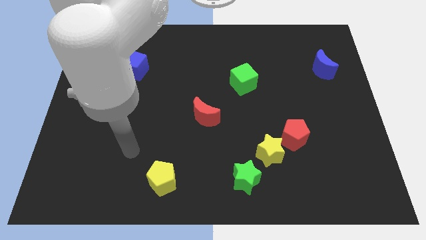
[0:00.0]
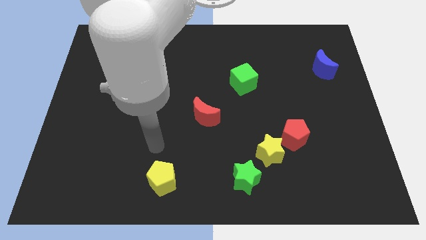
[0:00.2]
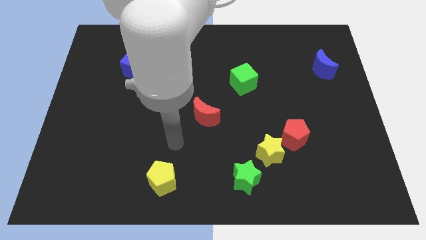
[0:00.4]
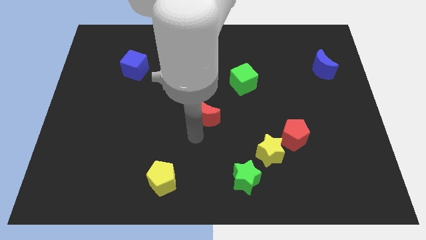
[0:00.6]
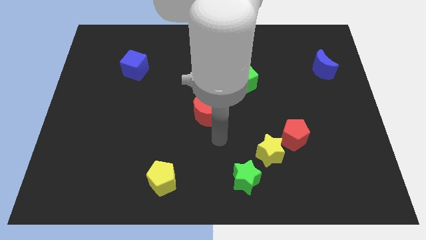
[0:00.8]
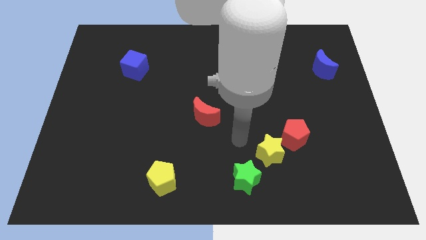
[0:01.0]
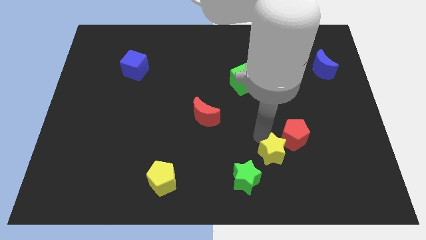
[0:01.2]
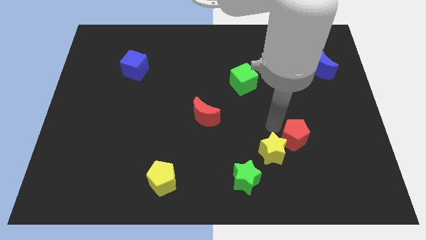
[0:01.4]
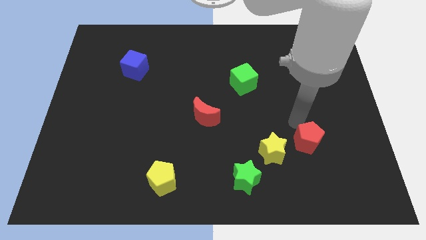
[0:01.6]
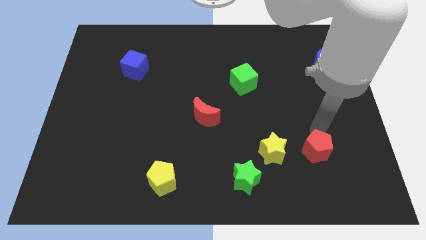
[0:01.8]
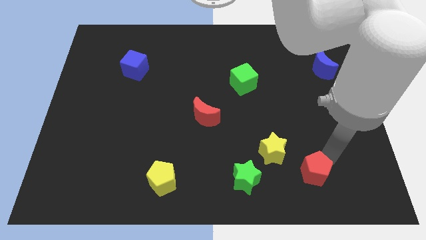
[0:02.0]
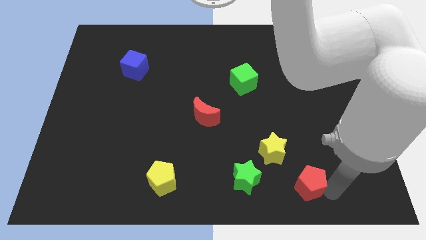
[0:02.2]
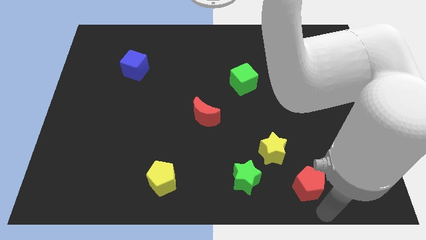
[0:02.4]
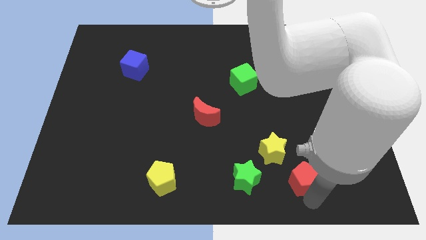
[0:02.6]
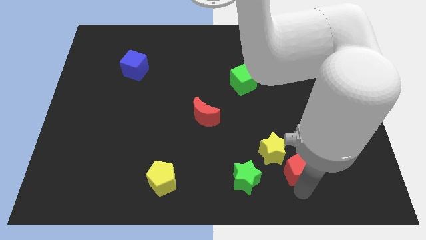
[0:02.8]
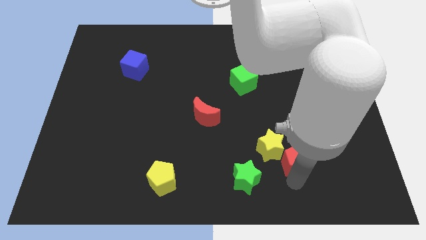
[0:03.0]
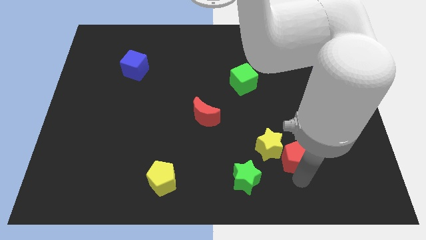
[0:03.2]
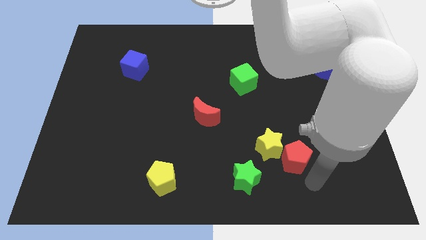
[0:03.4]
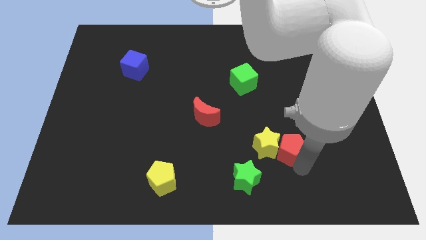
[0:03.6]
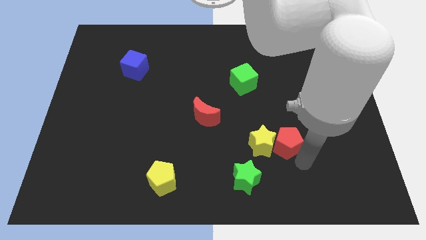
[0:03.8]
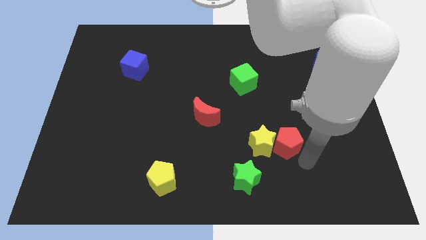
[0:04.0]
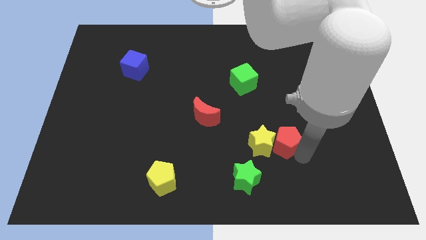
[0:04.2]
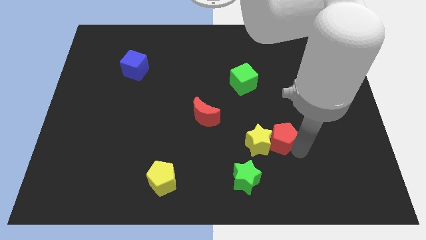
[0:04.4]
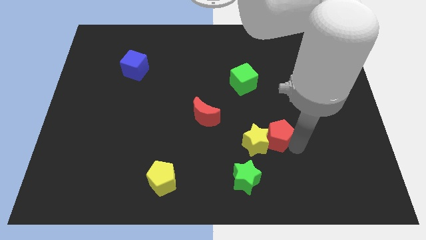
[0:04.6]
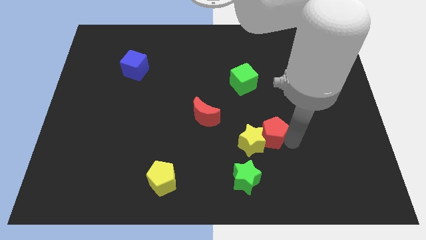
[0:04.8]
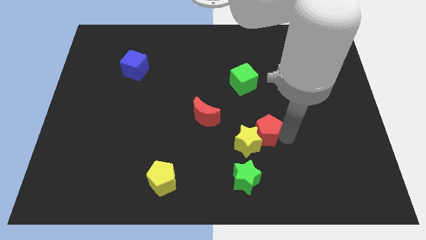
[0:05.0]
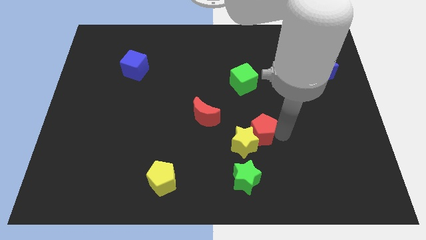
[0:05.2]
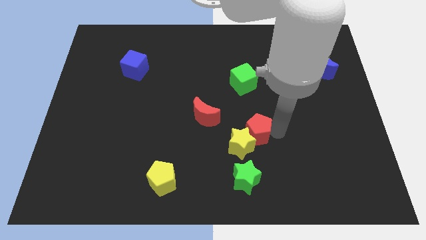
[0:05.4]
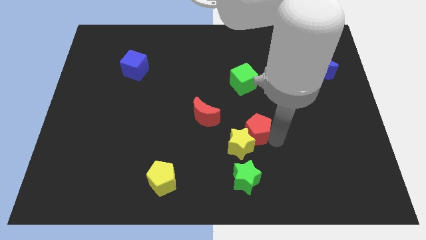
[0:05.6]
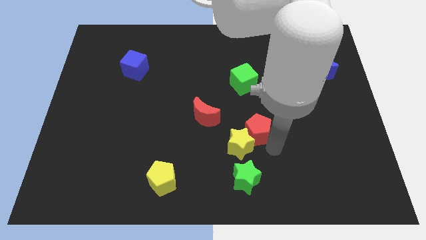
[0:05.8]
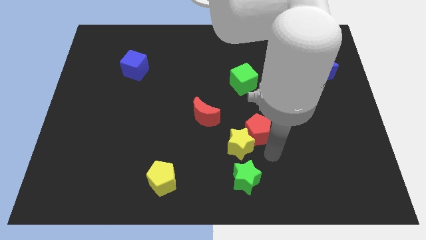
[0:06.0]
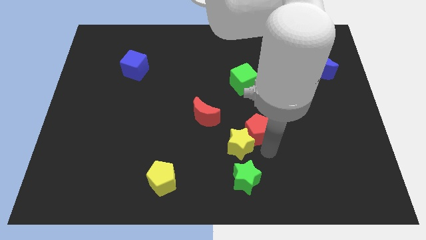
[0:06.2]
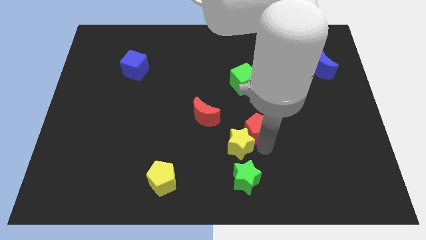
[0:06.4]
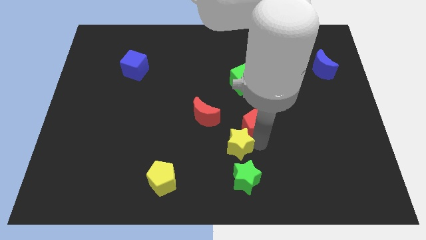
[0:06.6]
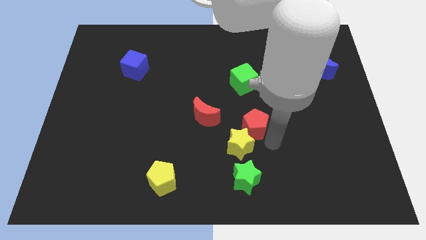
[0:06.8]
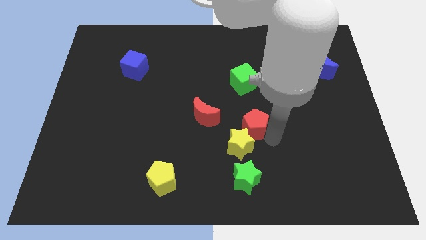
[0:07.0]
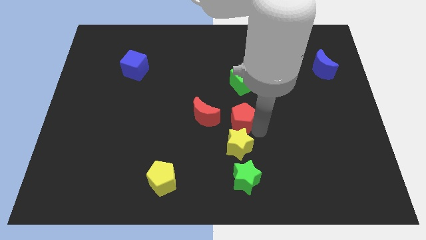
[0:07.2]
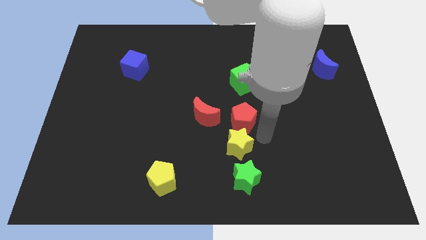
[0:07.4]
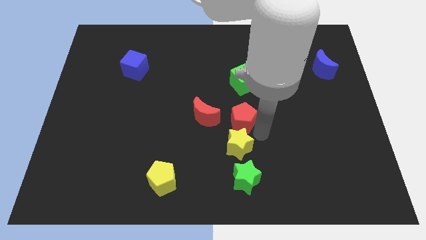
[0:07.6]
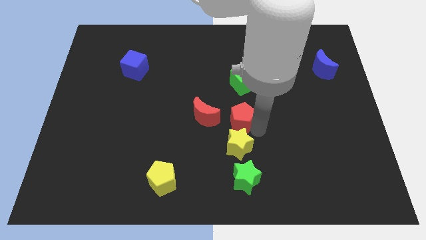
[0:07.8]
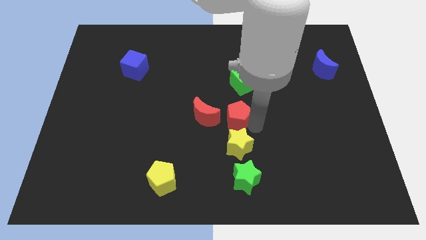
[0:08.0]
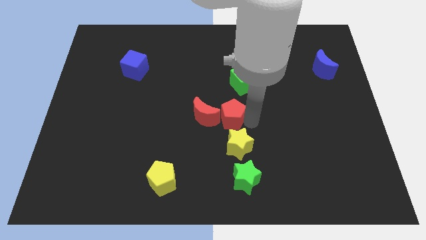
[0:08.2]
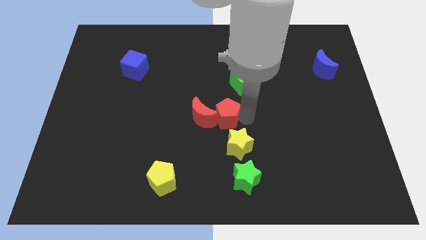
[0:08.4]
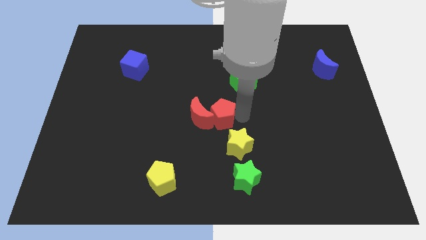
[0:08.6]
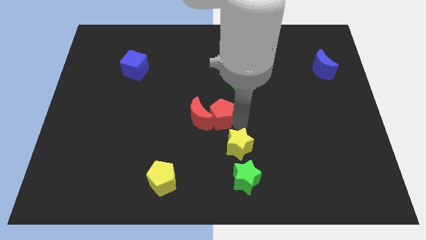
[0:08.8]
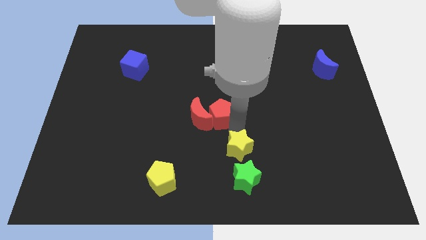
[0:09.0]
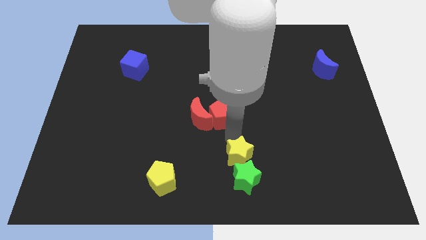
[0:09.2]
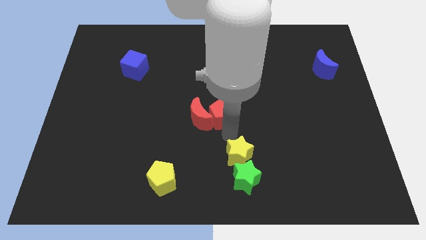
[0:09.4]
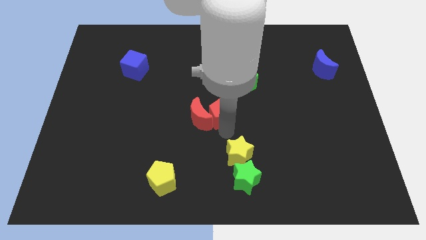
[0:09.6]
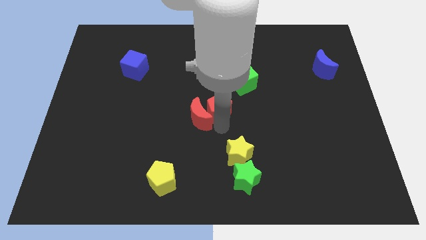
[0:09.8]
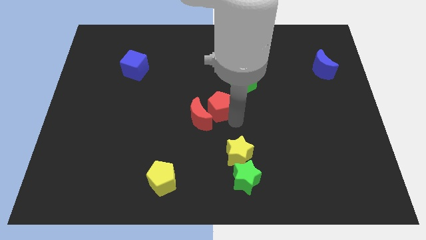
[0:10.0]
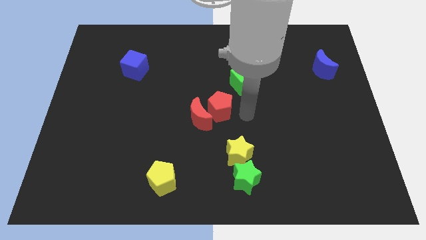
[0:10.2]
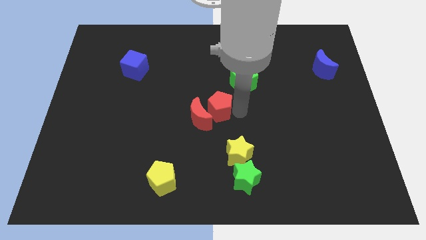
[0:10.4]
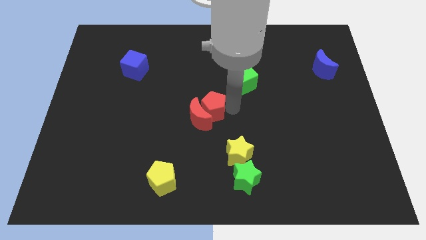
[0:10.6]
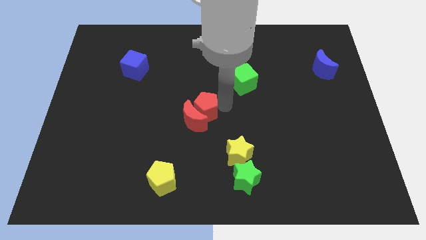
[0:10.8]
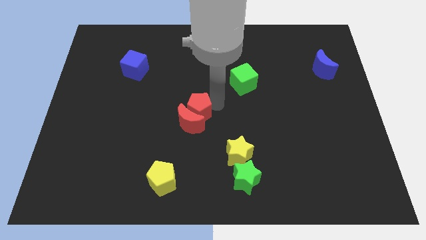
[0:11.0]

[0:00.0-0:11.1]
push the red pentagon diagonally up and to the left of the red moon

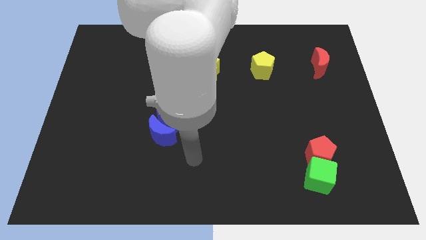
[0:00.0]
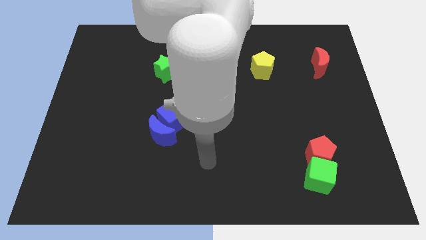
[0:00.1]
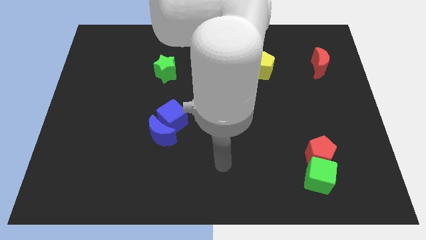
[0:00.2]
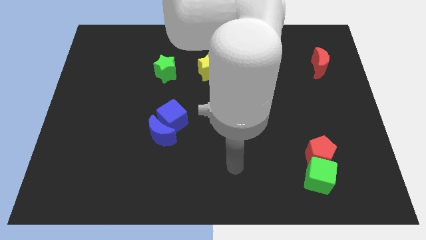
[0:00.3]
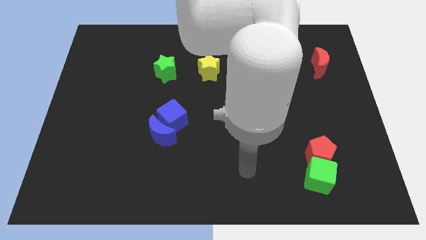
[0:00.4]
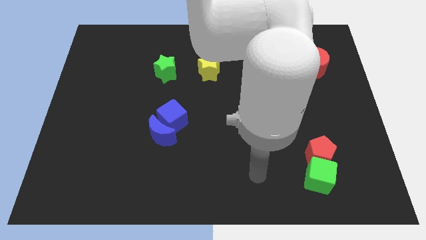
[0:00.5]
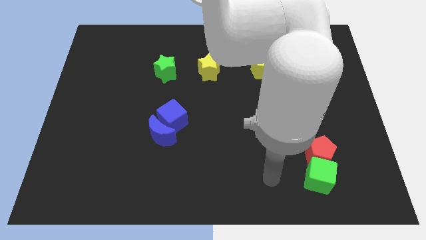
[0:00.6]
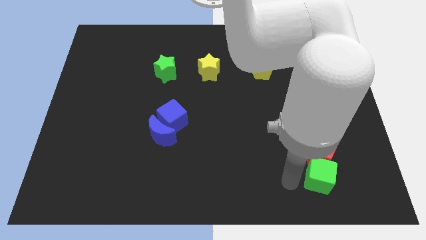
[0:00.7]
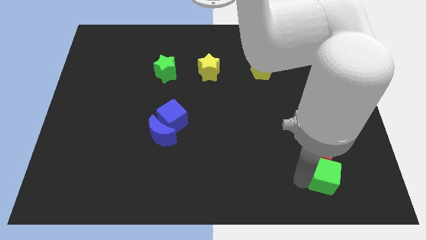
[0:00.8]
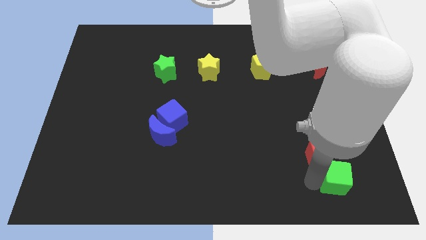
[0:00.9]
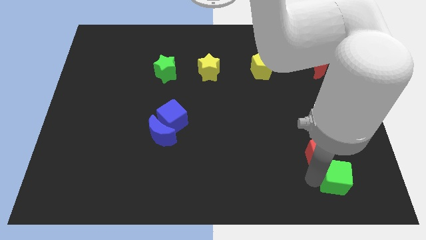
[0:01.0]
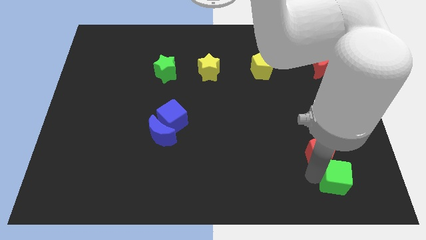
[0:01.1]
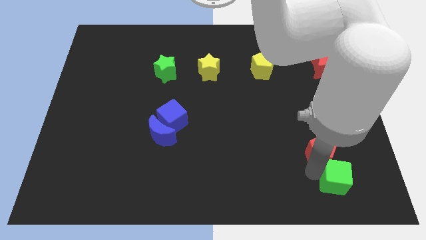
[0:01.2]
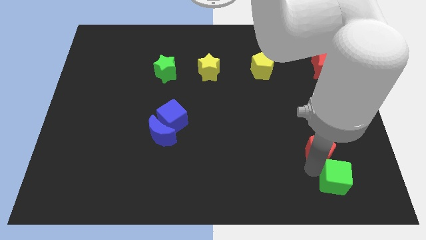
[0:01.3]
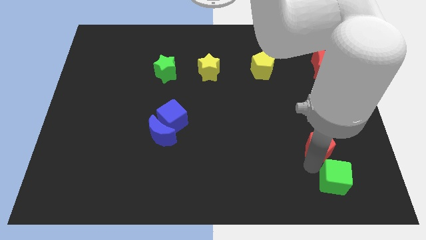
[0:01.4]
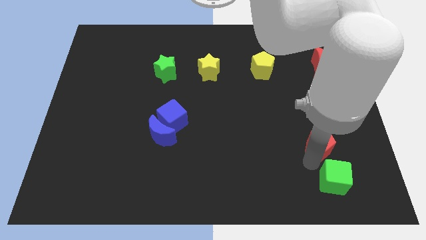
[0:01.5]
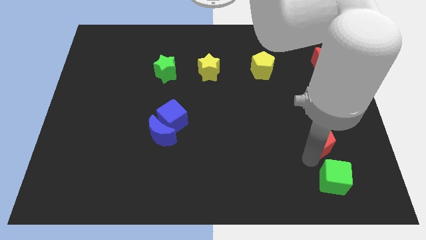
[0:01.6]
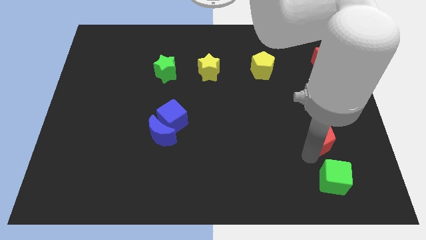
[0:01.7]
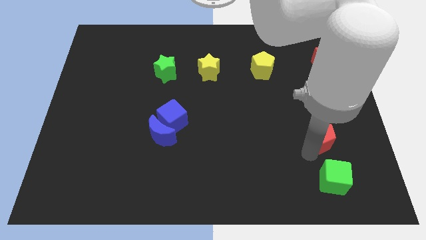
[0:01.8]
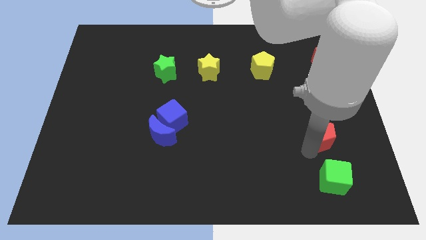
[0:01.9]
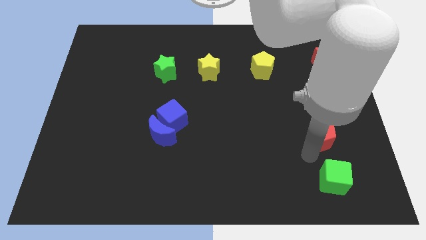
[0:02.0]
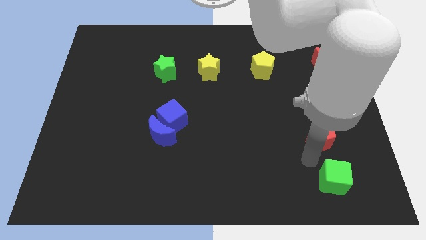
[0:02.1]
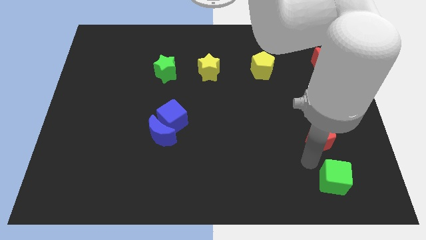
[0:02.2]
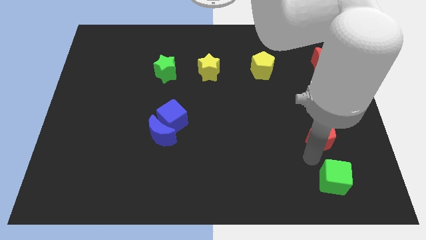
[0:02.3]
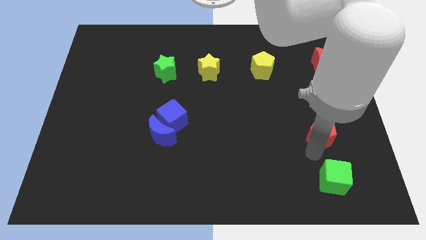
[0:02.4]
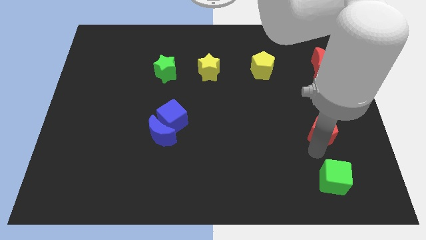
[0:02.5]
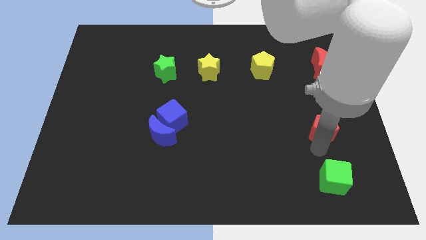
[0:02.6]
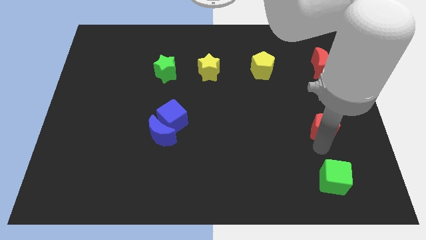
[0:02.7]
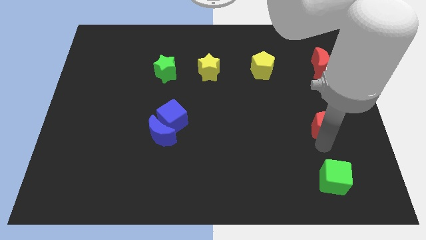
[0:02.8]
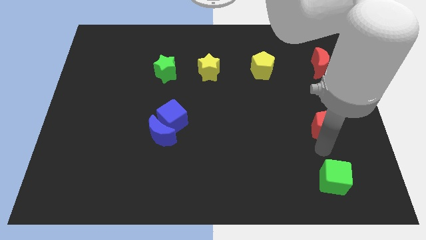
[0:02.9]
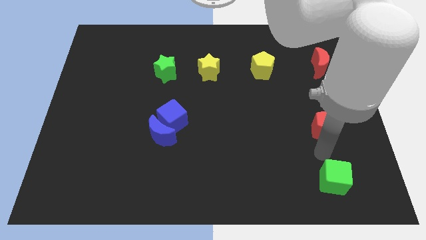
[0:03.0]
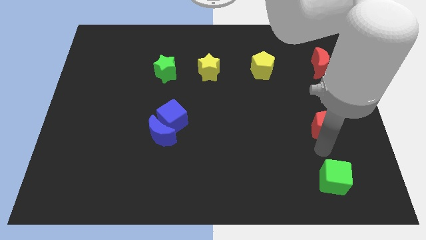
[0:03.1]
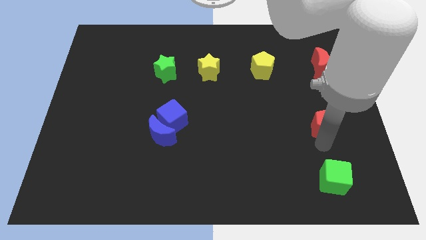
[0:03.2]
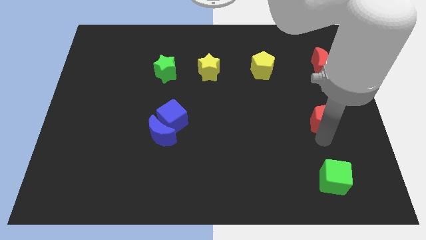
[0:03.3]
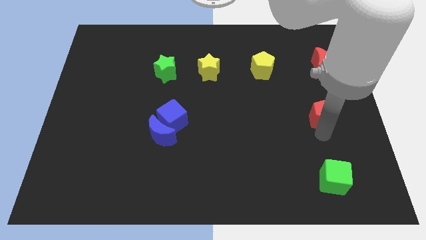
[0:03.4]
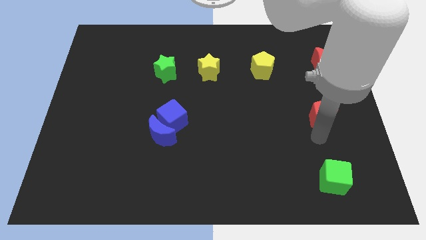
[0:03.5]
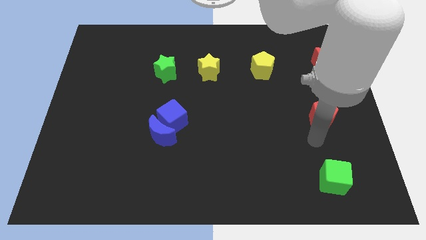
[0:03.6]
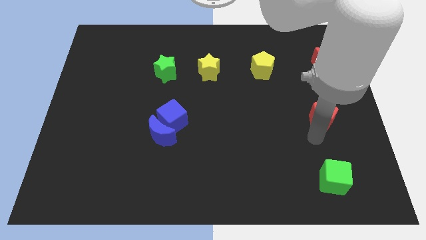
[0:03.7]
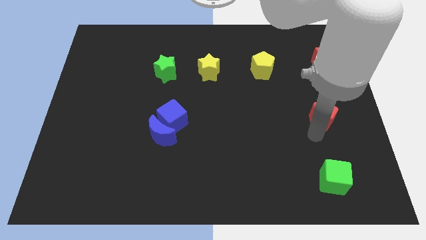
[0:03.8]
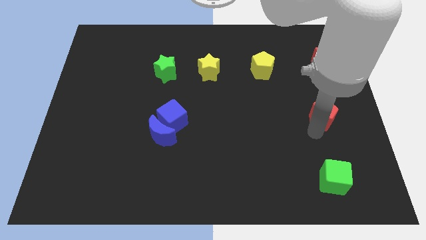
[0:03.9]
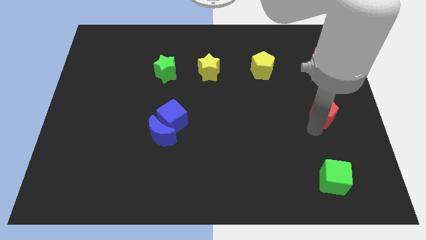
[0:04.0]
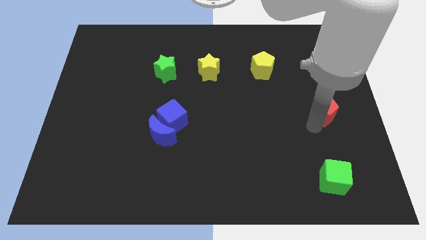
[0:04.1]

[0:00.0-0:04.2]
move the red pentagon to the bottom side of the red moon
